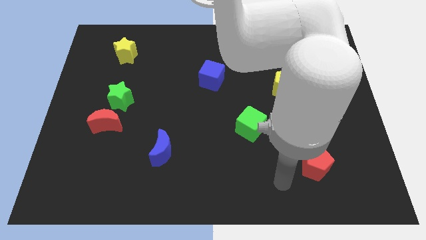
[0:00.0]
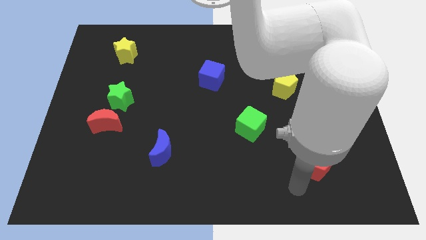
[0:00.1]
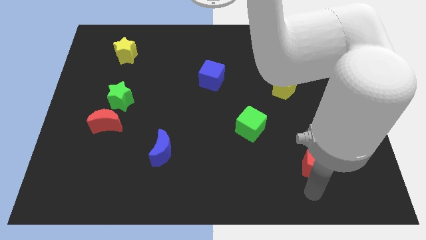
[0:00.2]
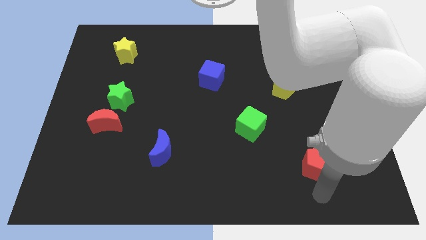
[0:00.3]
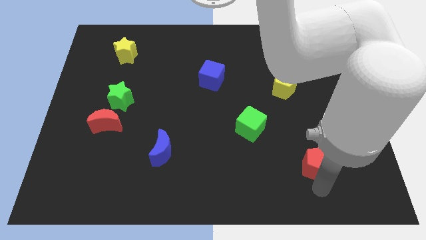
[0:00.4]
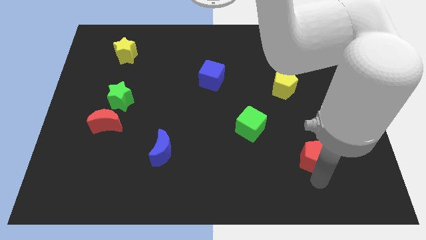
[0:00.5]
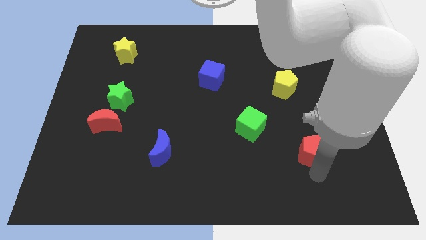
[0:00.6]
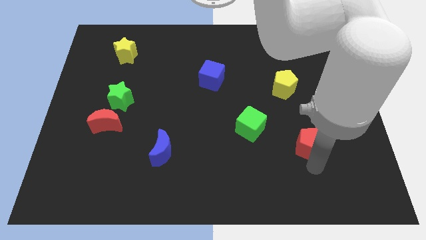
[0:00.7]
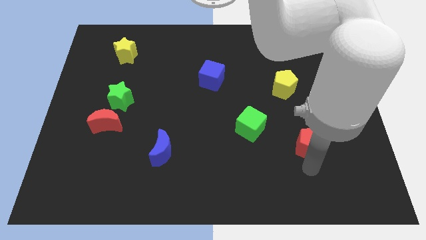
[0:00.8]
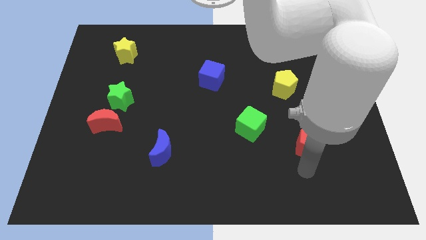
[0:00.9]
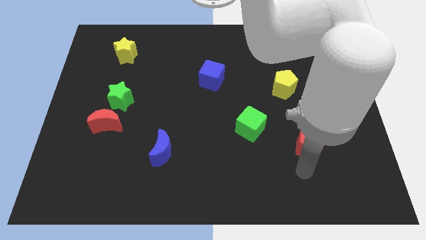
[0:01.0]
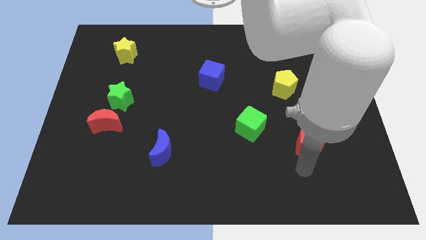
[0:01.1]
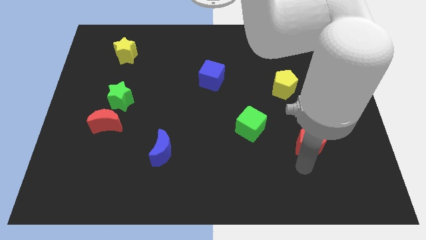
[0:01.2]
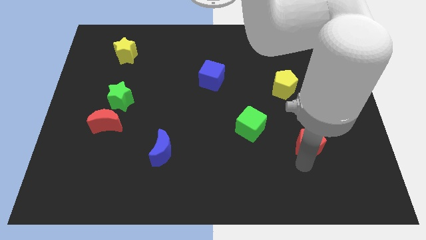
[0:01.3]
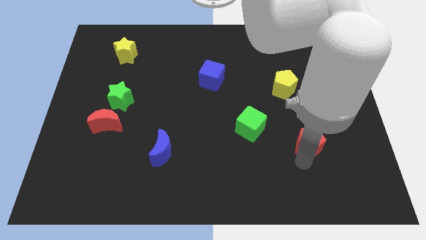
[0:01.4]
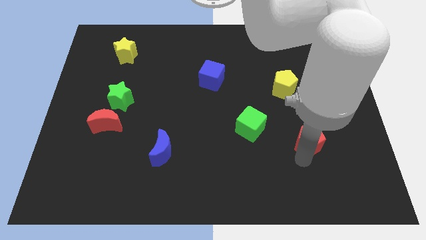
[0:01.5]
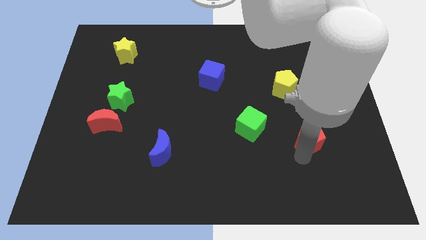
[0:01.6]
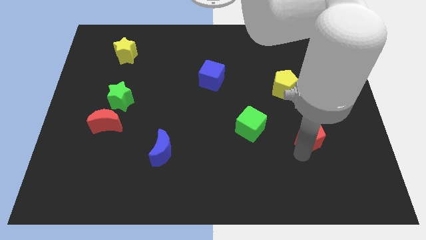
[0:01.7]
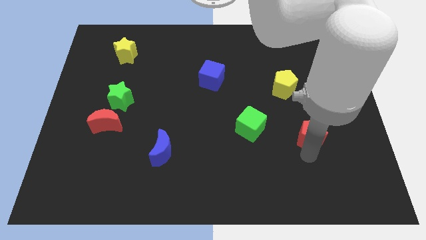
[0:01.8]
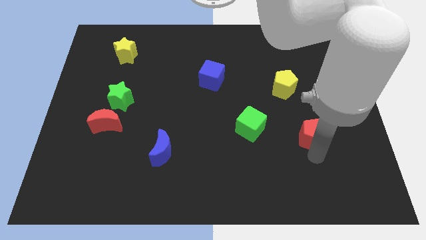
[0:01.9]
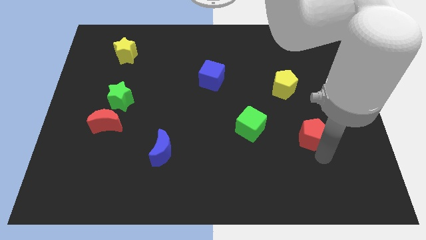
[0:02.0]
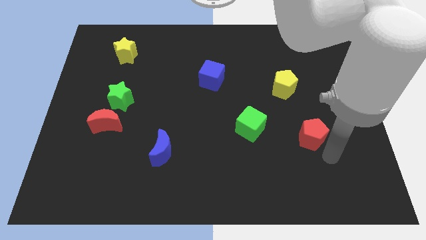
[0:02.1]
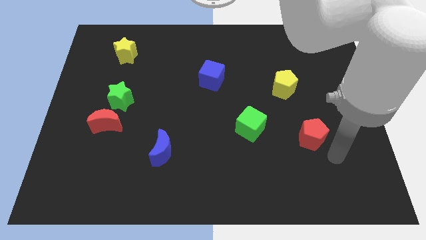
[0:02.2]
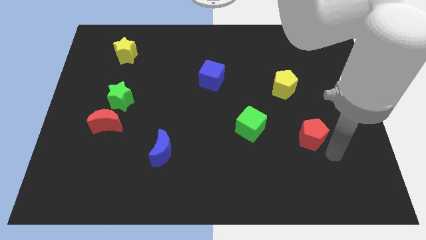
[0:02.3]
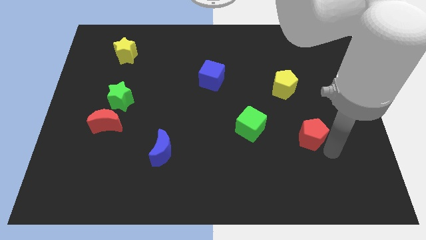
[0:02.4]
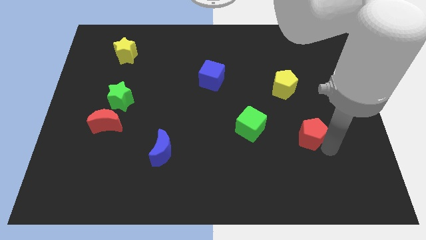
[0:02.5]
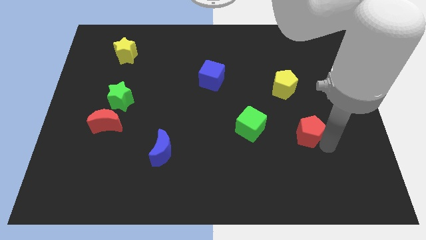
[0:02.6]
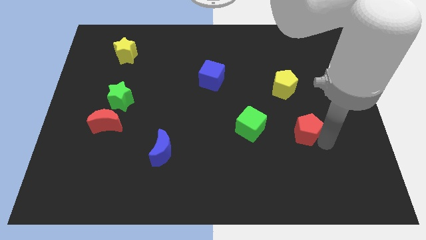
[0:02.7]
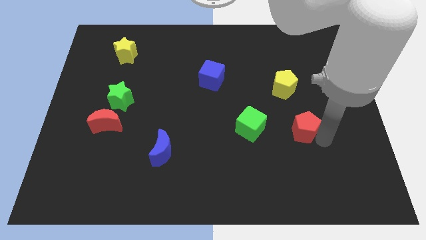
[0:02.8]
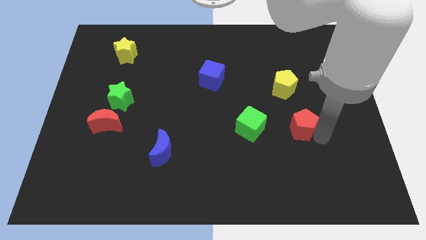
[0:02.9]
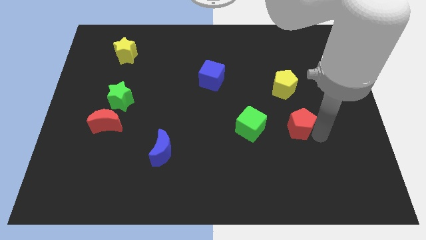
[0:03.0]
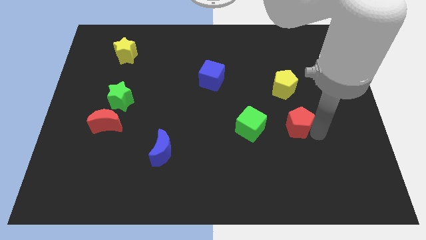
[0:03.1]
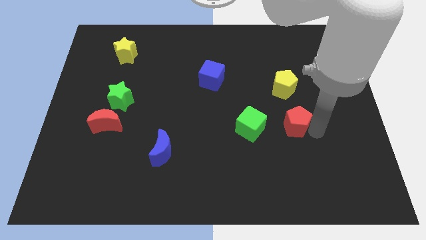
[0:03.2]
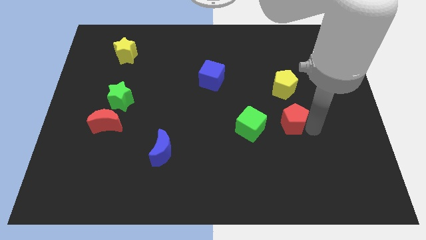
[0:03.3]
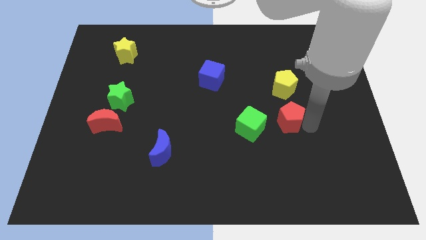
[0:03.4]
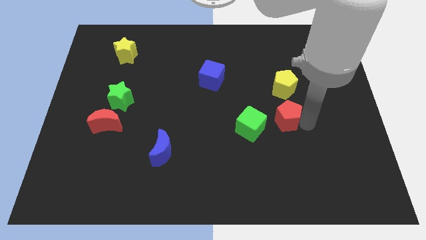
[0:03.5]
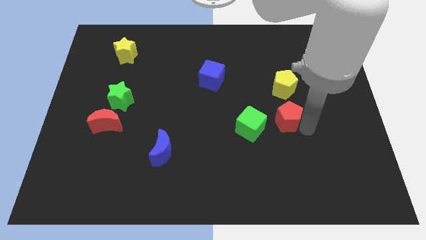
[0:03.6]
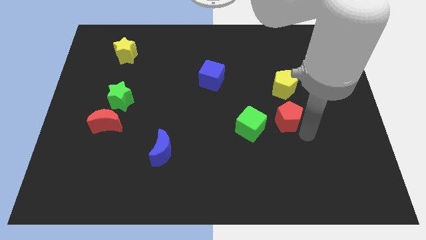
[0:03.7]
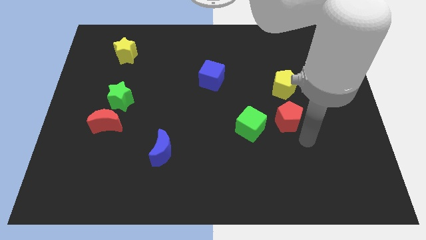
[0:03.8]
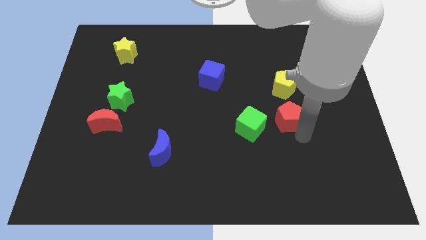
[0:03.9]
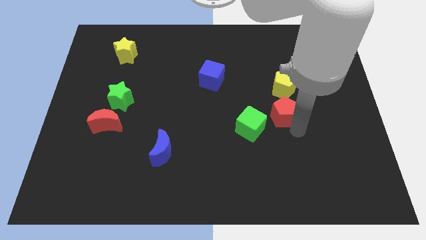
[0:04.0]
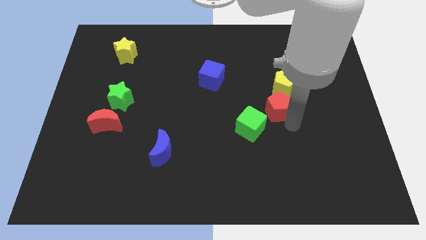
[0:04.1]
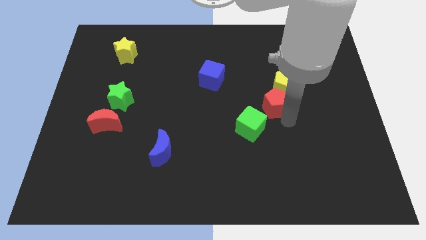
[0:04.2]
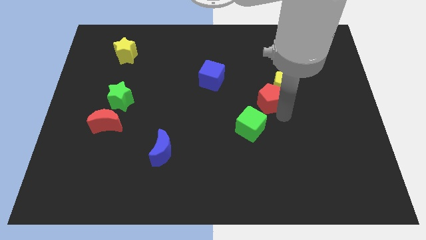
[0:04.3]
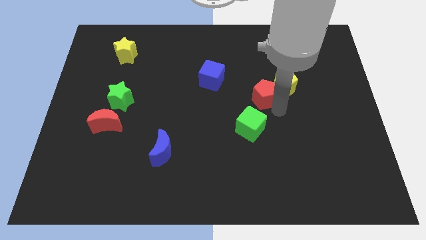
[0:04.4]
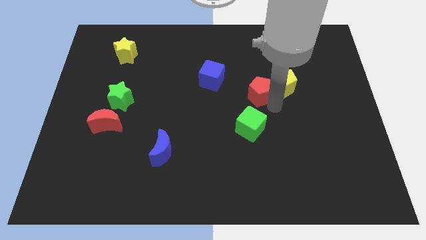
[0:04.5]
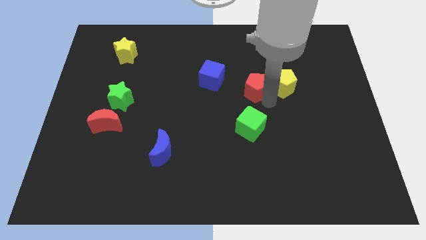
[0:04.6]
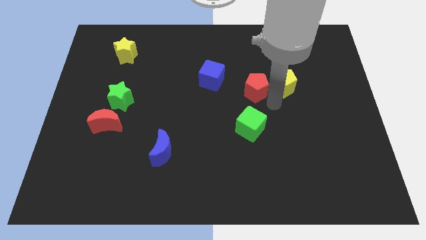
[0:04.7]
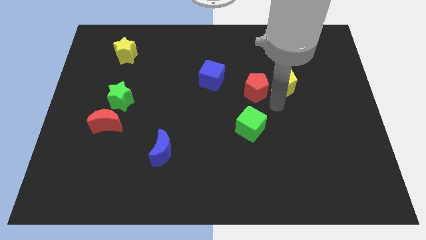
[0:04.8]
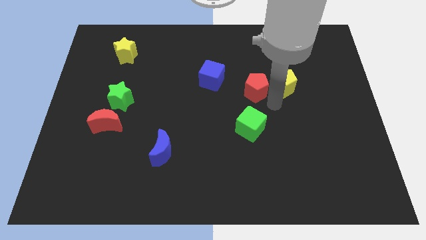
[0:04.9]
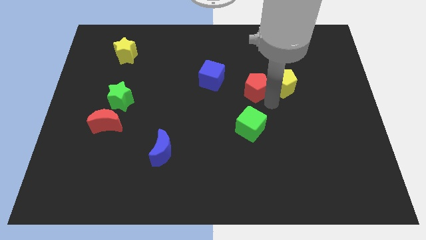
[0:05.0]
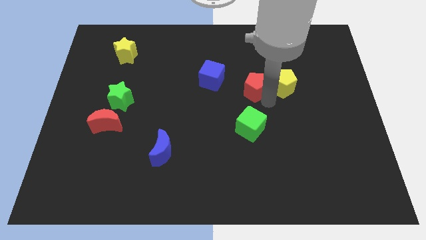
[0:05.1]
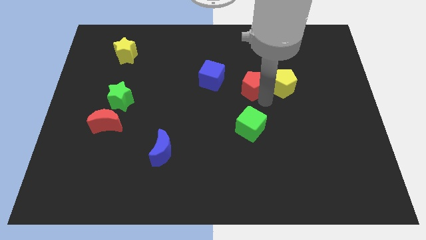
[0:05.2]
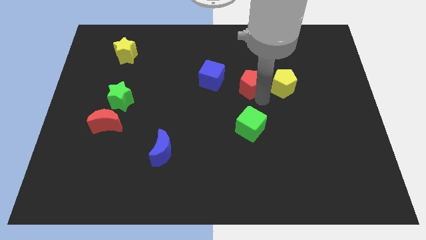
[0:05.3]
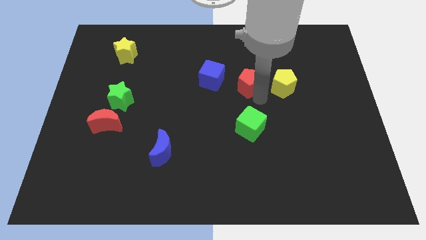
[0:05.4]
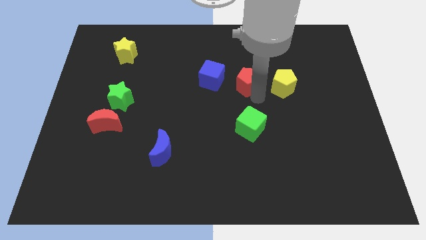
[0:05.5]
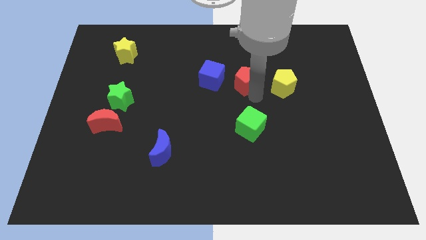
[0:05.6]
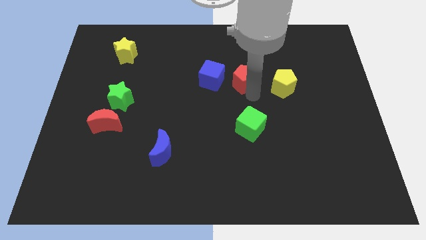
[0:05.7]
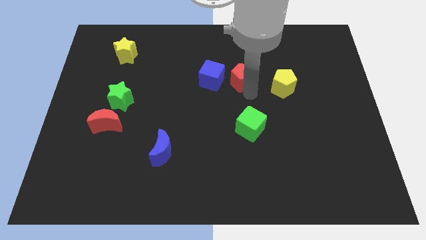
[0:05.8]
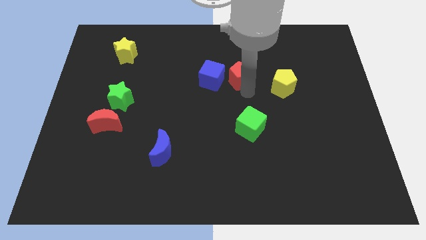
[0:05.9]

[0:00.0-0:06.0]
slide the red pentagon to the top right of the blue cube

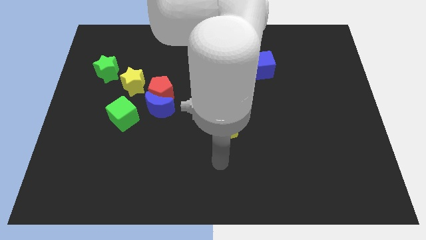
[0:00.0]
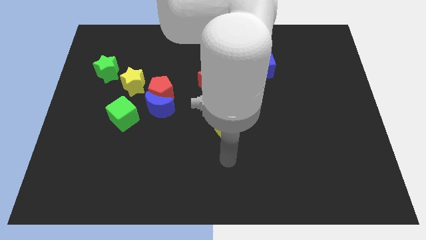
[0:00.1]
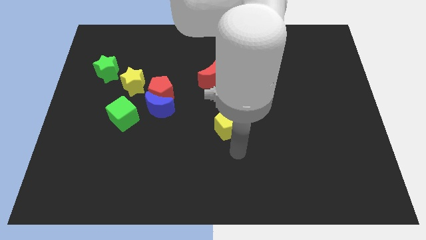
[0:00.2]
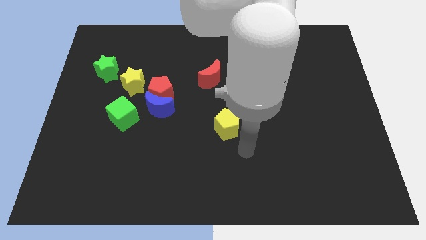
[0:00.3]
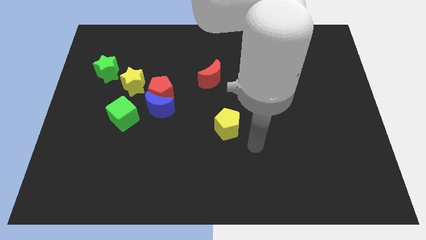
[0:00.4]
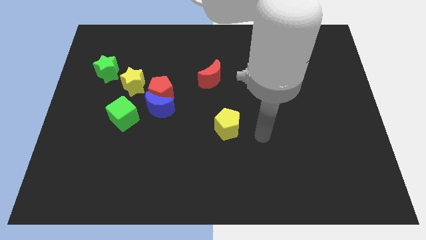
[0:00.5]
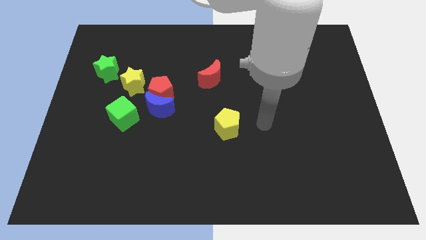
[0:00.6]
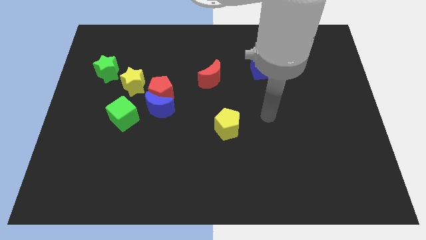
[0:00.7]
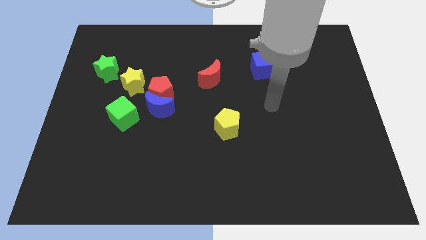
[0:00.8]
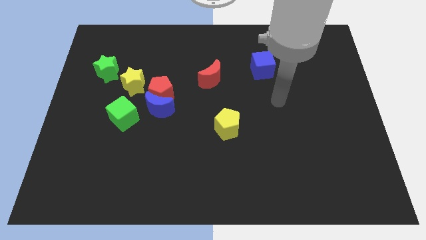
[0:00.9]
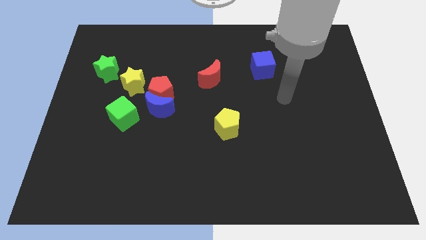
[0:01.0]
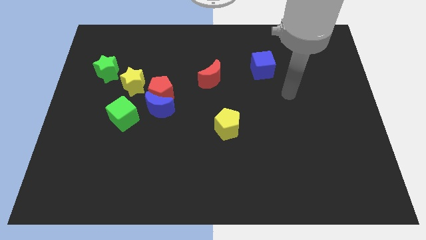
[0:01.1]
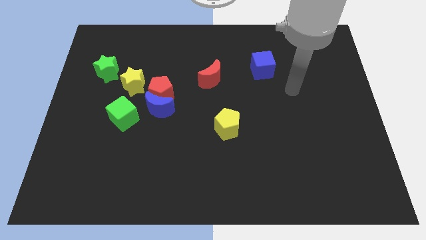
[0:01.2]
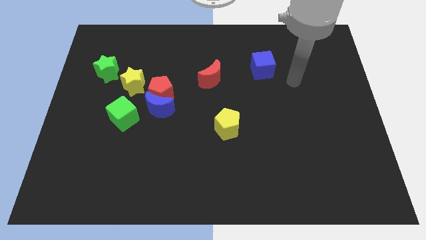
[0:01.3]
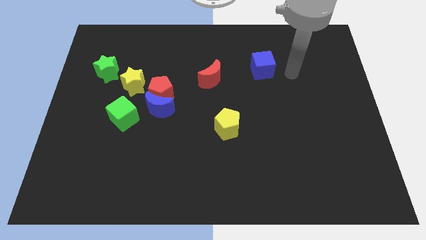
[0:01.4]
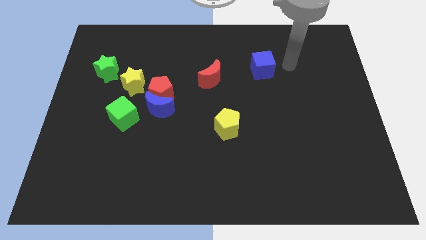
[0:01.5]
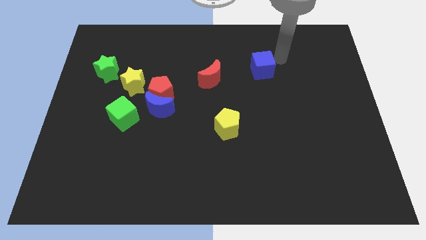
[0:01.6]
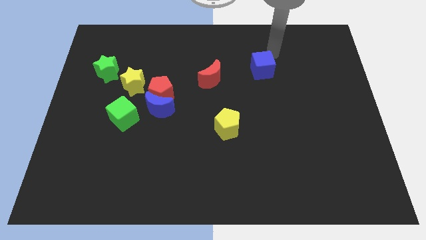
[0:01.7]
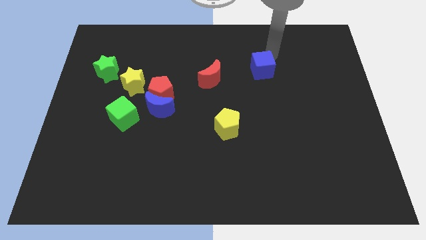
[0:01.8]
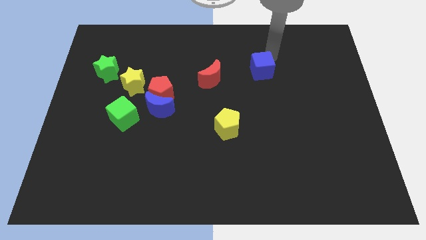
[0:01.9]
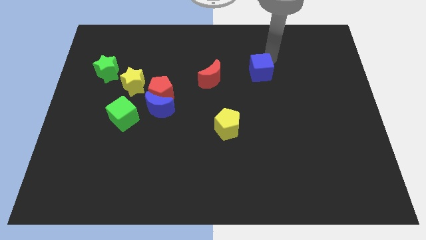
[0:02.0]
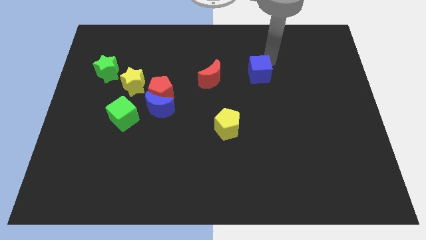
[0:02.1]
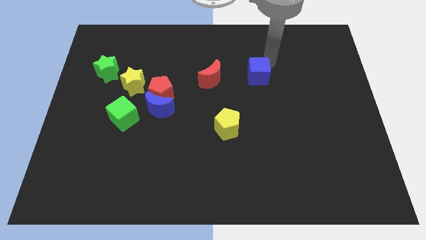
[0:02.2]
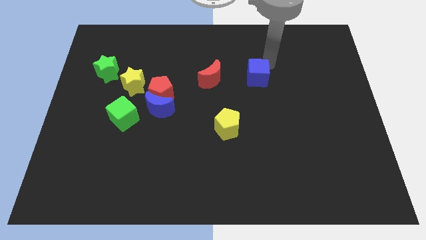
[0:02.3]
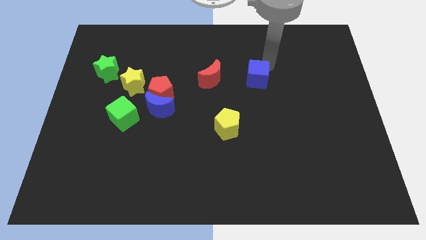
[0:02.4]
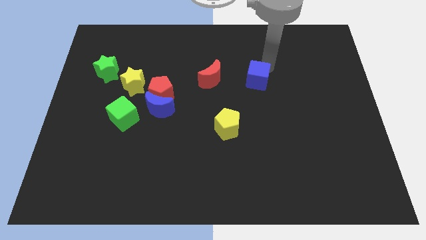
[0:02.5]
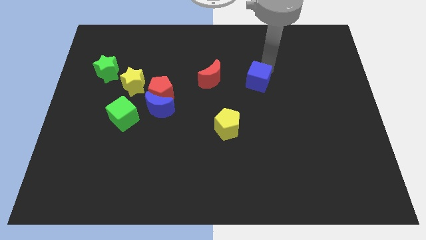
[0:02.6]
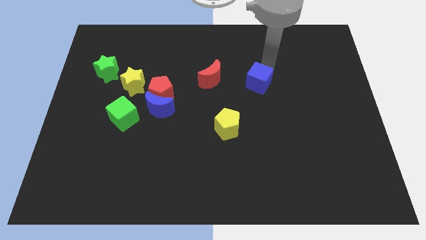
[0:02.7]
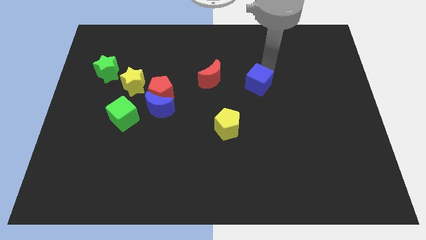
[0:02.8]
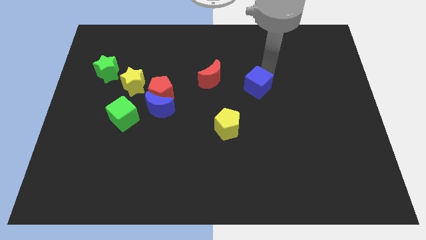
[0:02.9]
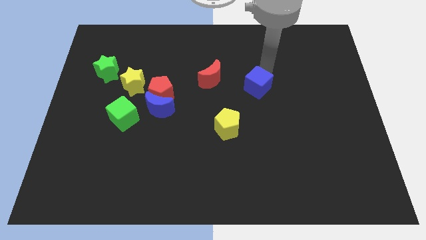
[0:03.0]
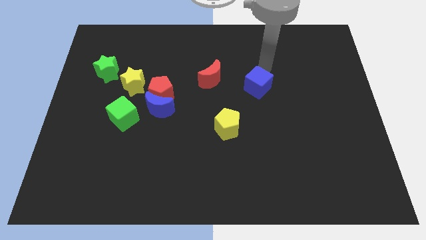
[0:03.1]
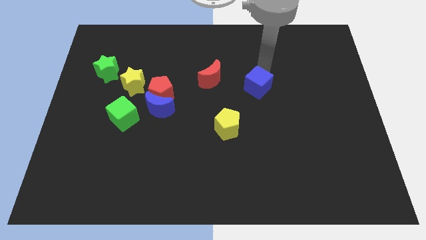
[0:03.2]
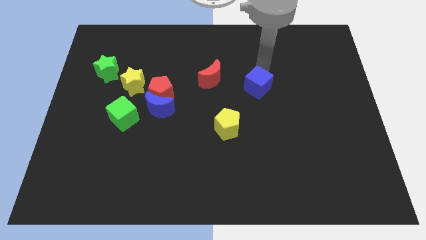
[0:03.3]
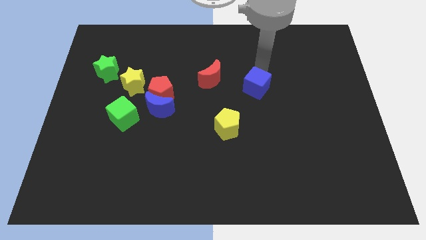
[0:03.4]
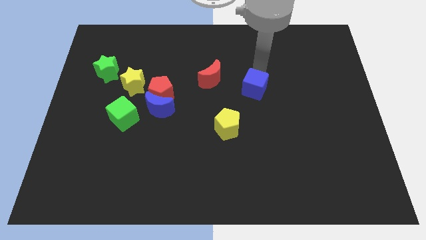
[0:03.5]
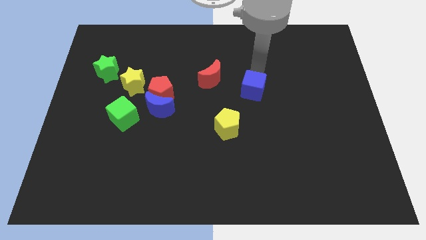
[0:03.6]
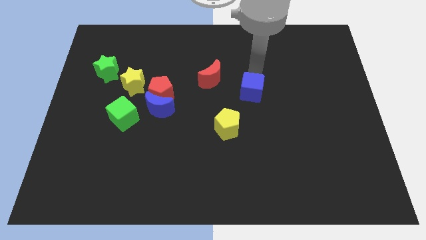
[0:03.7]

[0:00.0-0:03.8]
put the blue cube to the top right side of the yellow pentagon
